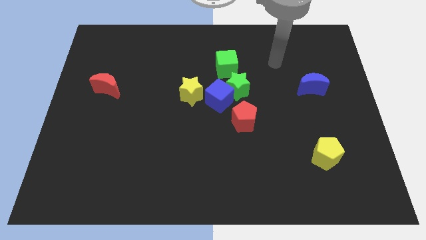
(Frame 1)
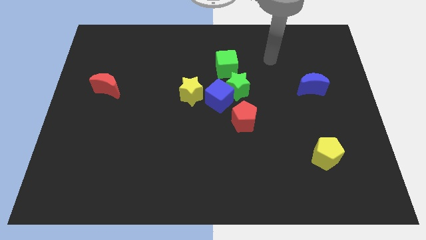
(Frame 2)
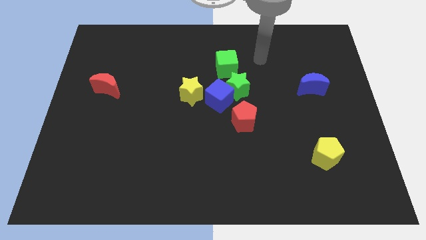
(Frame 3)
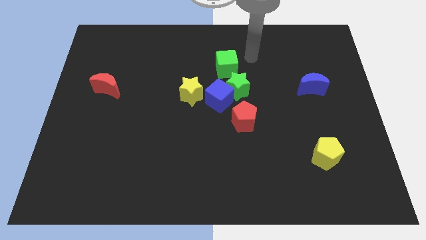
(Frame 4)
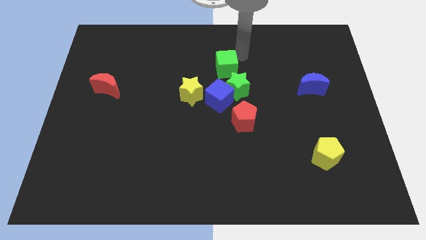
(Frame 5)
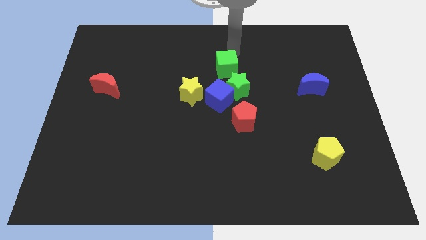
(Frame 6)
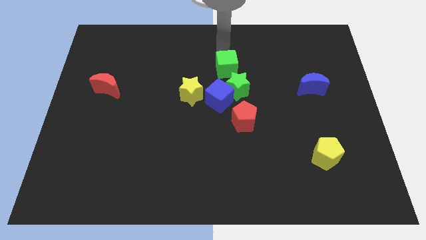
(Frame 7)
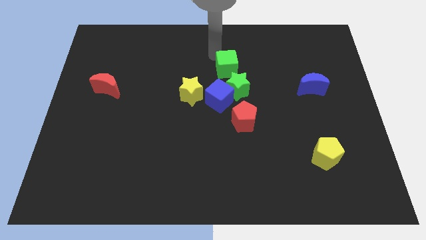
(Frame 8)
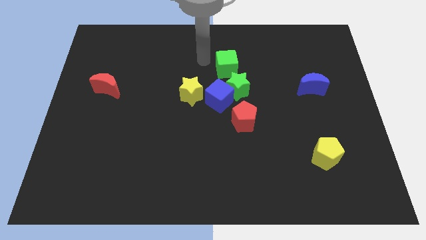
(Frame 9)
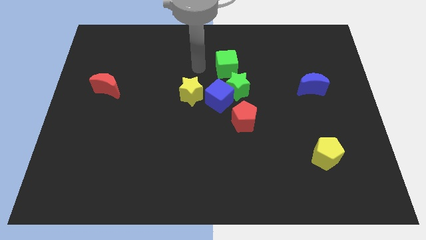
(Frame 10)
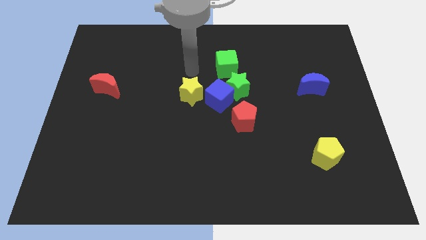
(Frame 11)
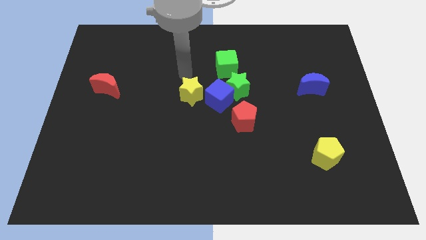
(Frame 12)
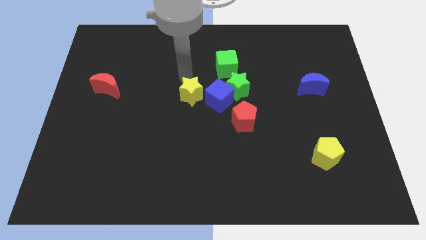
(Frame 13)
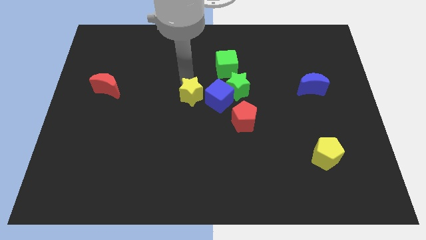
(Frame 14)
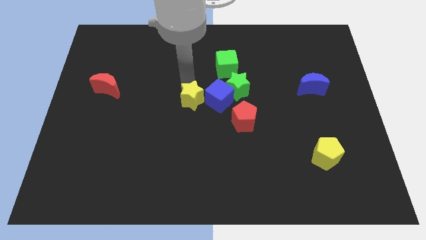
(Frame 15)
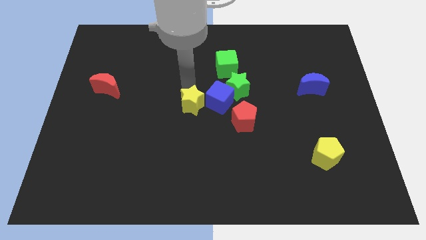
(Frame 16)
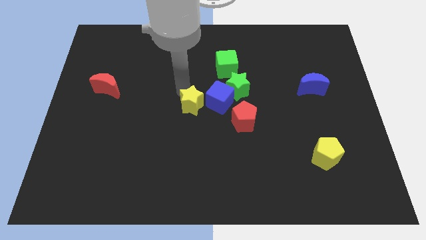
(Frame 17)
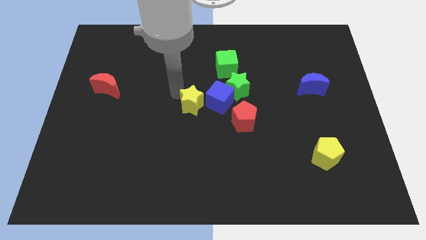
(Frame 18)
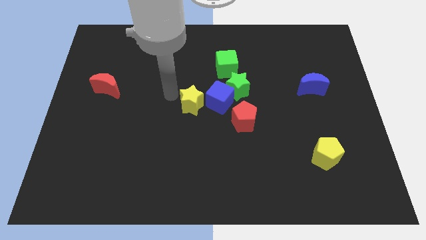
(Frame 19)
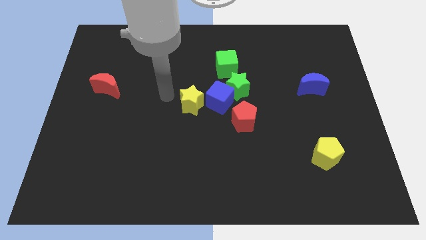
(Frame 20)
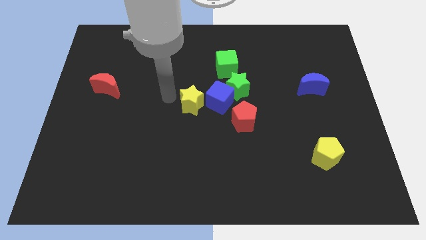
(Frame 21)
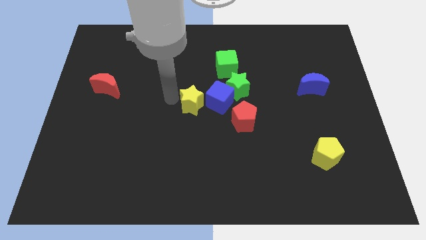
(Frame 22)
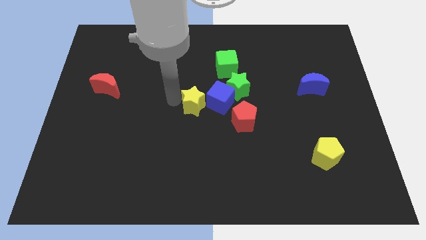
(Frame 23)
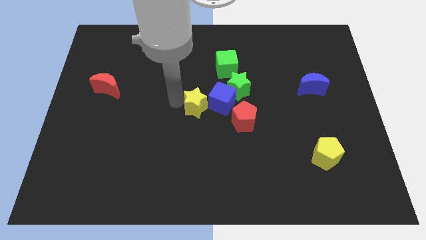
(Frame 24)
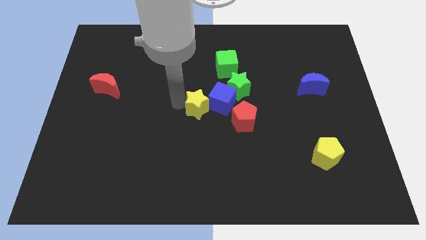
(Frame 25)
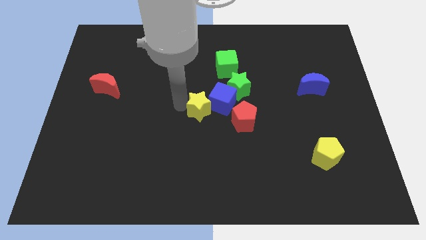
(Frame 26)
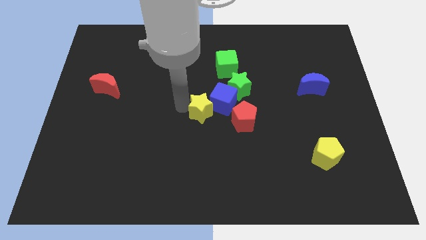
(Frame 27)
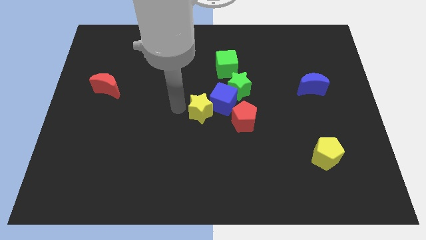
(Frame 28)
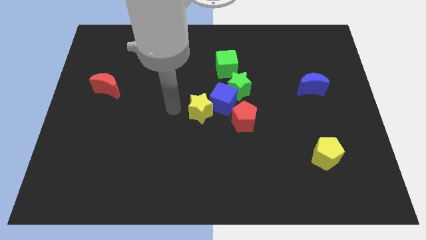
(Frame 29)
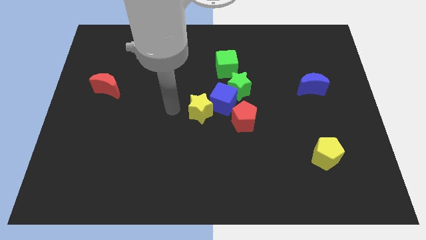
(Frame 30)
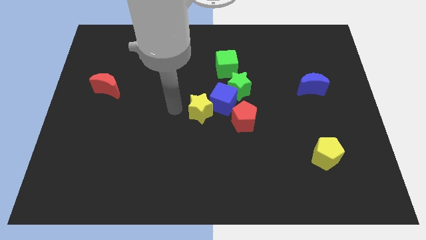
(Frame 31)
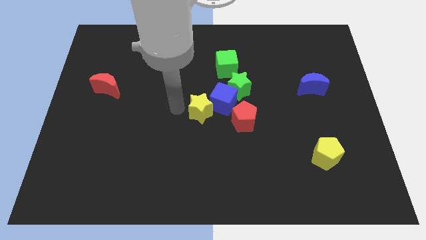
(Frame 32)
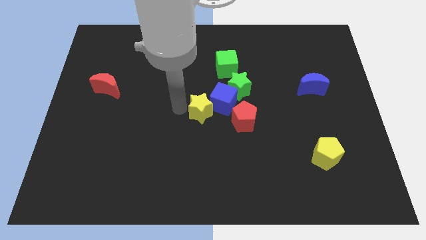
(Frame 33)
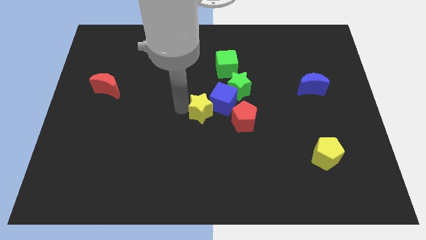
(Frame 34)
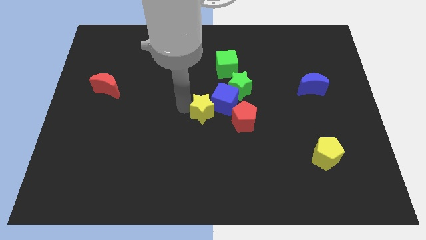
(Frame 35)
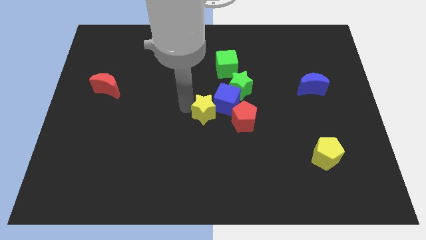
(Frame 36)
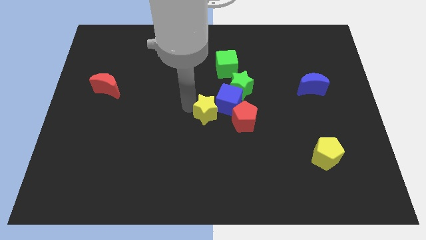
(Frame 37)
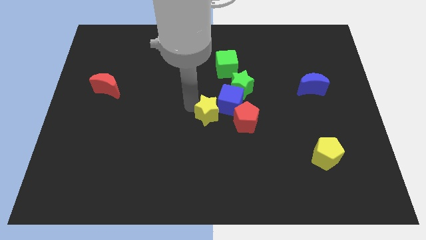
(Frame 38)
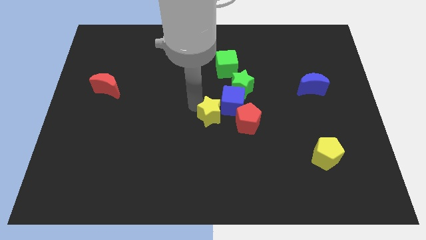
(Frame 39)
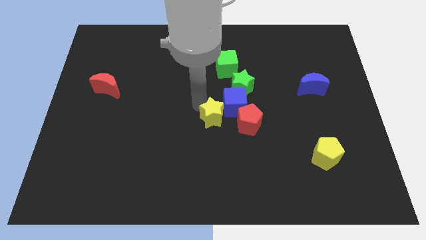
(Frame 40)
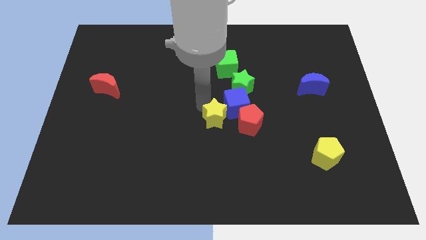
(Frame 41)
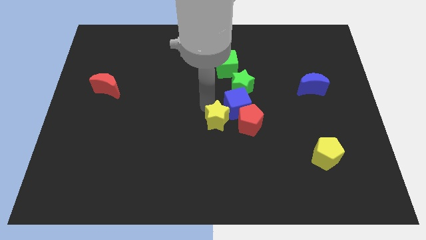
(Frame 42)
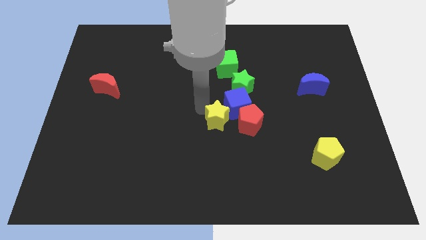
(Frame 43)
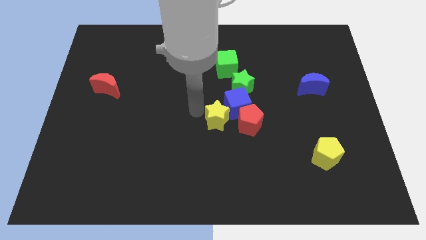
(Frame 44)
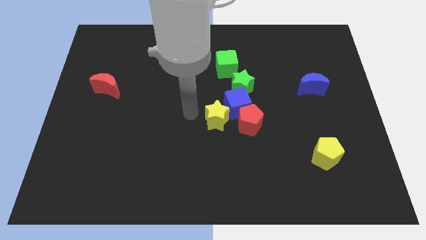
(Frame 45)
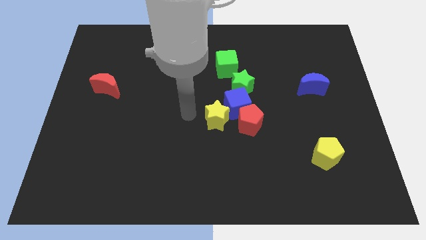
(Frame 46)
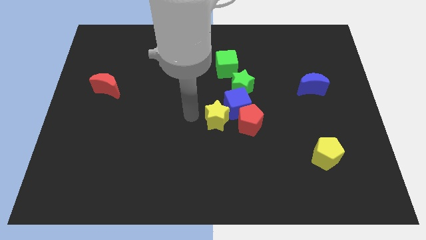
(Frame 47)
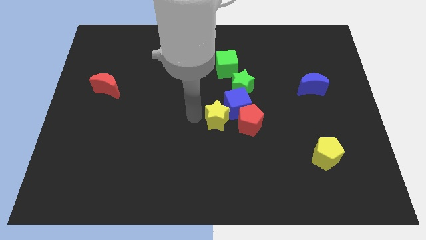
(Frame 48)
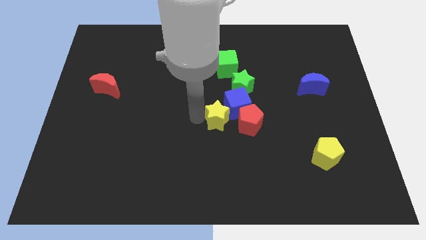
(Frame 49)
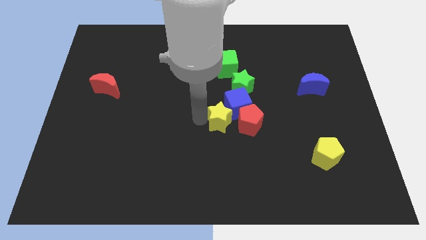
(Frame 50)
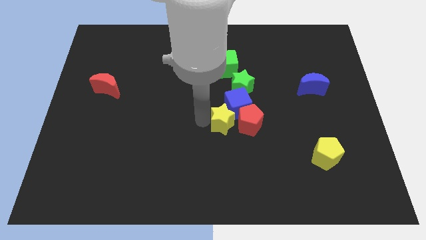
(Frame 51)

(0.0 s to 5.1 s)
move the yellow star to the red pentagon

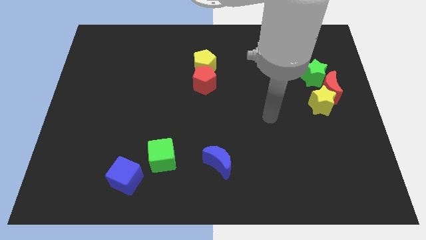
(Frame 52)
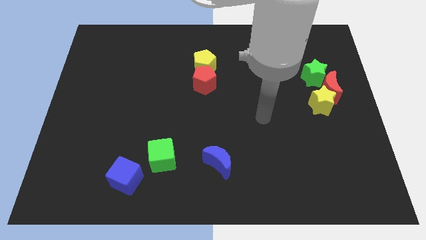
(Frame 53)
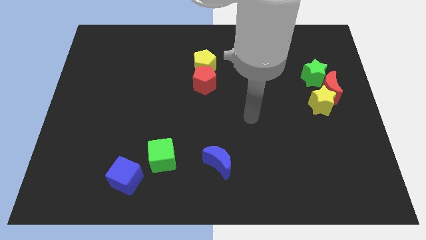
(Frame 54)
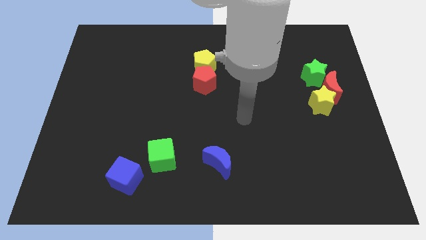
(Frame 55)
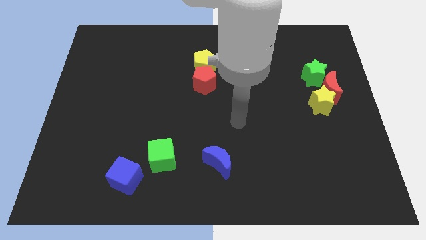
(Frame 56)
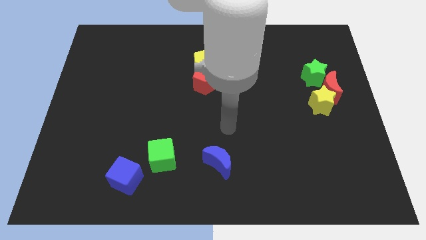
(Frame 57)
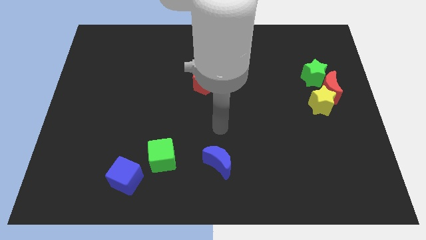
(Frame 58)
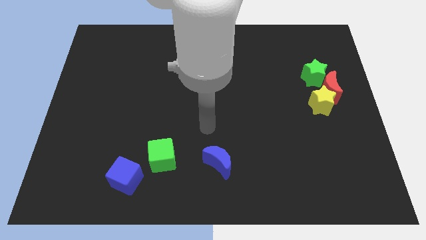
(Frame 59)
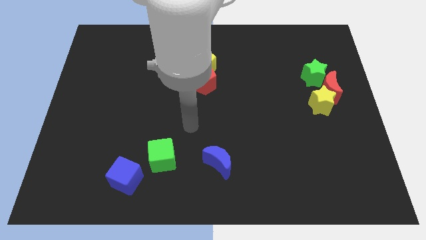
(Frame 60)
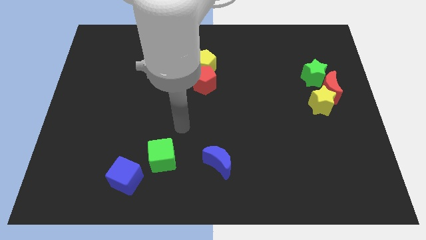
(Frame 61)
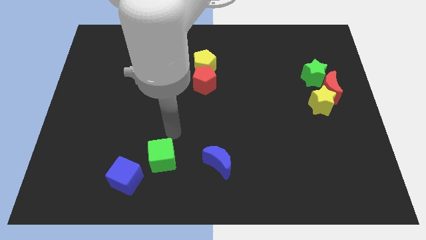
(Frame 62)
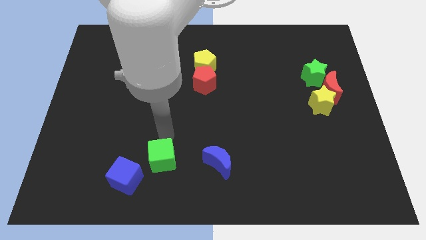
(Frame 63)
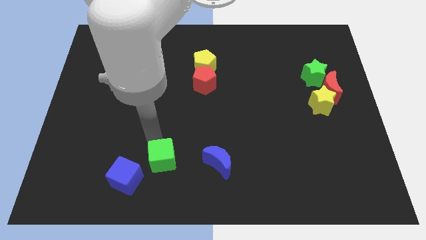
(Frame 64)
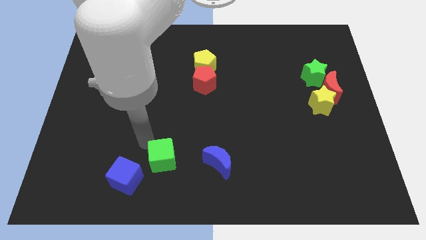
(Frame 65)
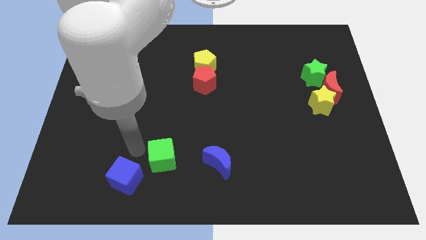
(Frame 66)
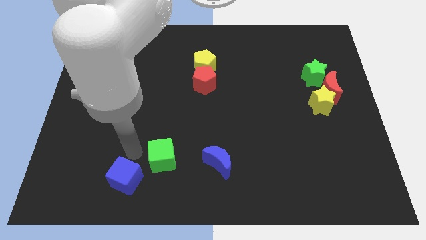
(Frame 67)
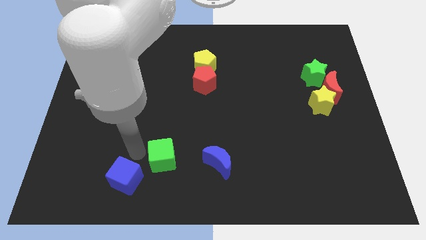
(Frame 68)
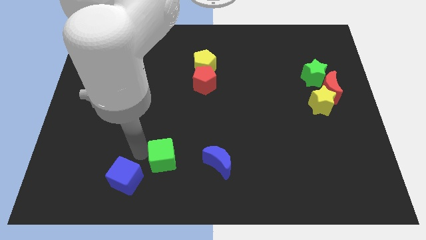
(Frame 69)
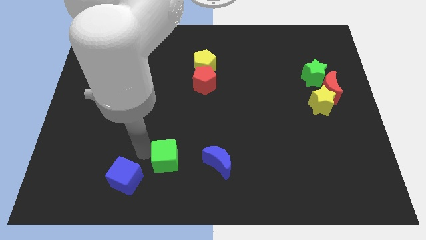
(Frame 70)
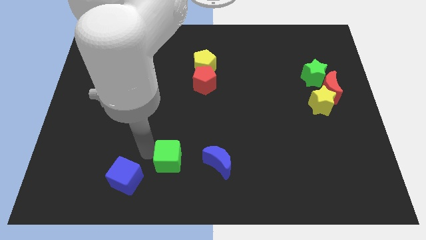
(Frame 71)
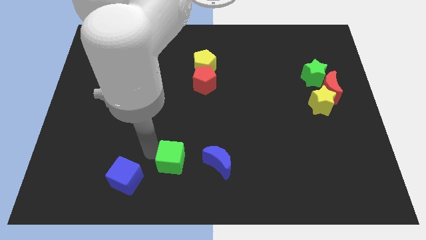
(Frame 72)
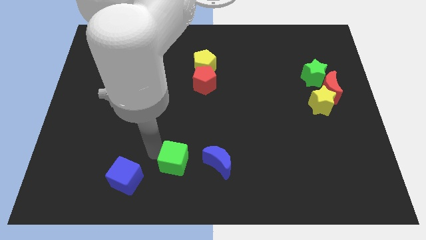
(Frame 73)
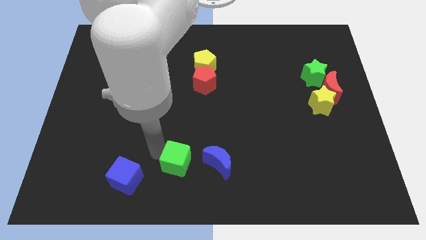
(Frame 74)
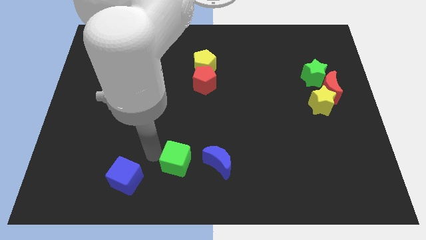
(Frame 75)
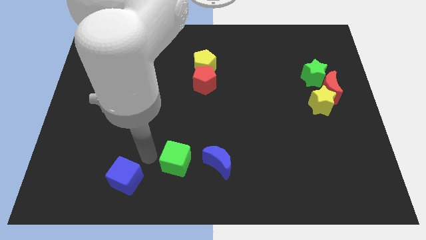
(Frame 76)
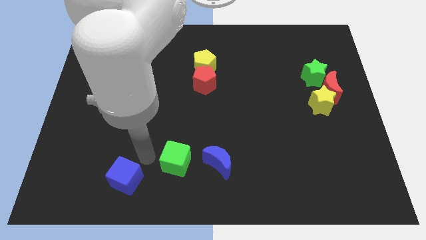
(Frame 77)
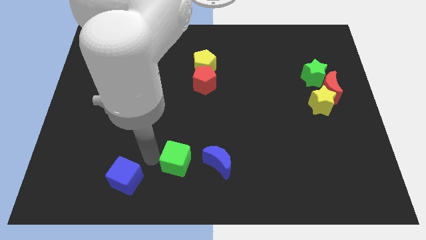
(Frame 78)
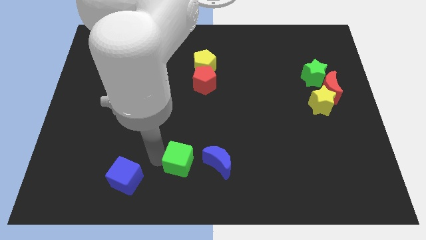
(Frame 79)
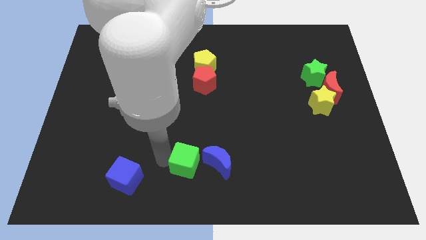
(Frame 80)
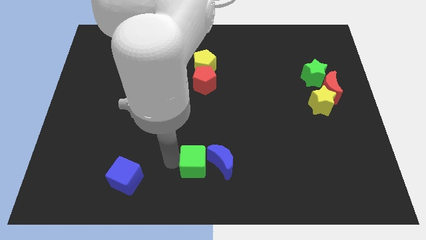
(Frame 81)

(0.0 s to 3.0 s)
put the green cube towards the blue moon
